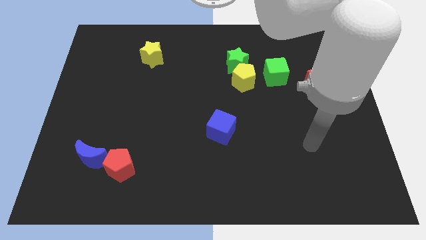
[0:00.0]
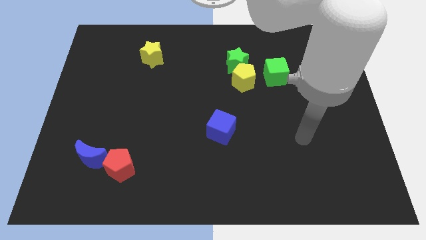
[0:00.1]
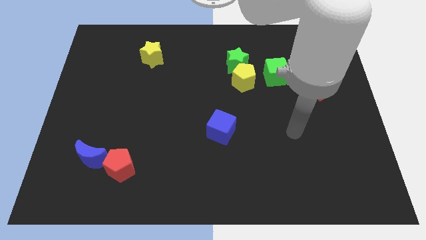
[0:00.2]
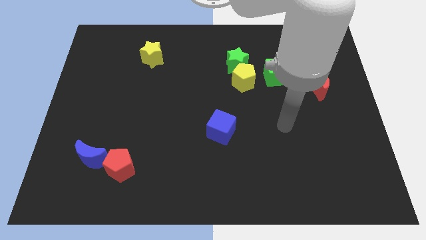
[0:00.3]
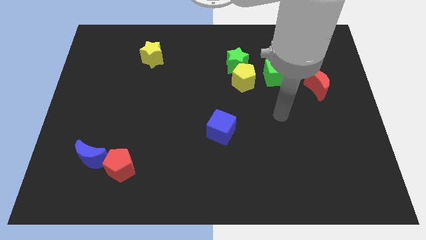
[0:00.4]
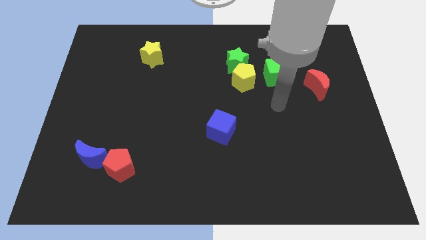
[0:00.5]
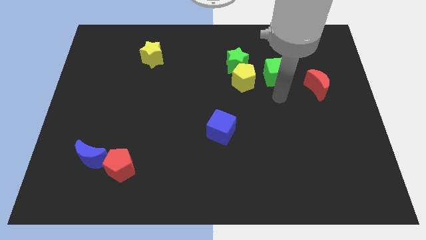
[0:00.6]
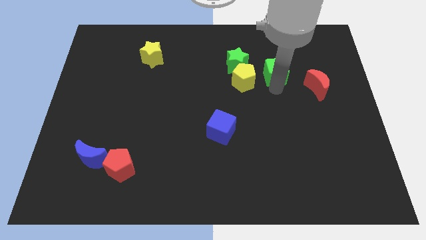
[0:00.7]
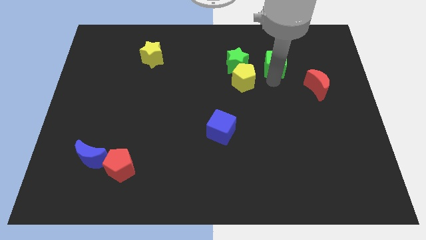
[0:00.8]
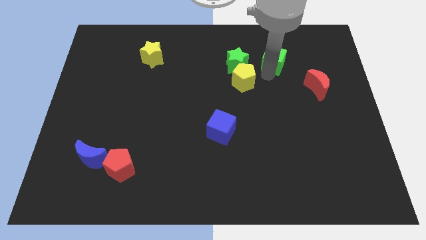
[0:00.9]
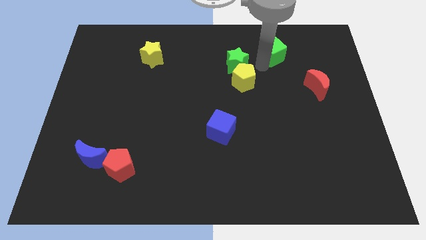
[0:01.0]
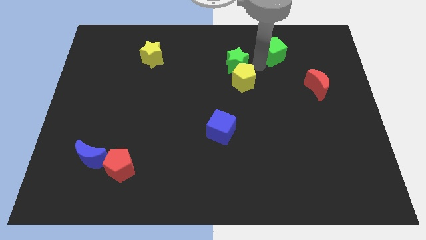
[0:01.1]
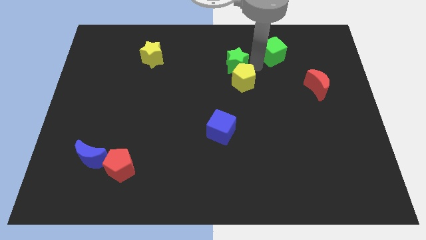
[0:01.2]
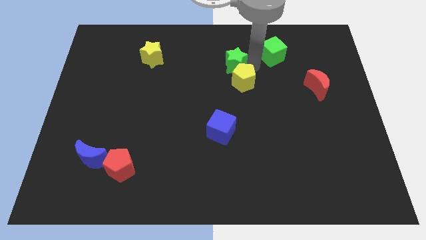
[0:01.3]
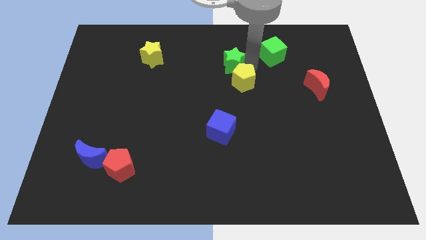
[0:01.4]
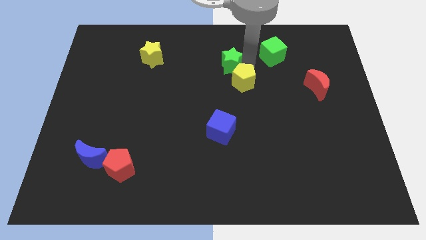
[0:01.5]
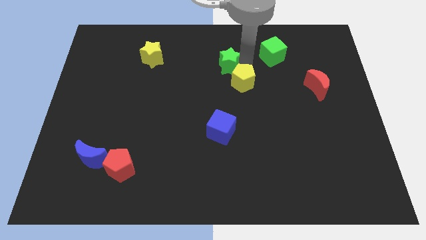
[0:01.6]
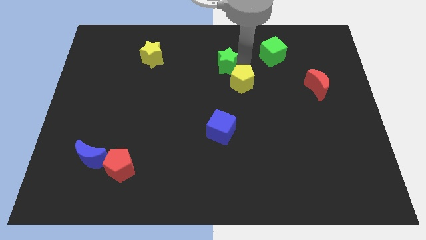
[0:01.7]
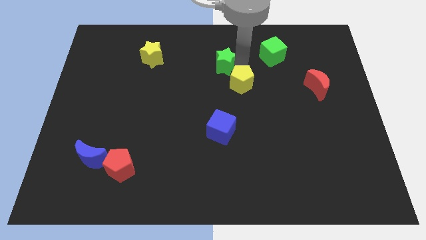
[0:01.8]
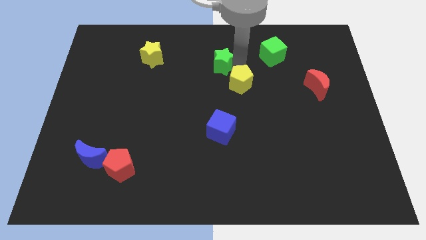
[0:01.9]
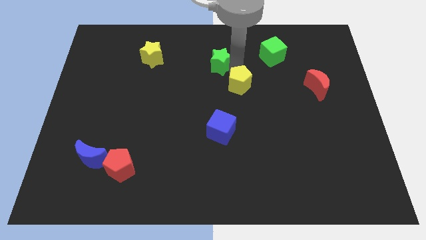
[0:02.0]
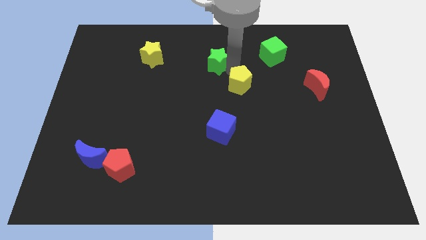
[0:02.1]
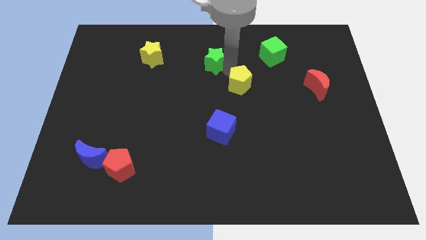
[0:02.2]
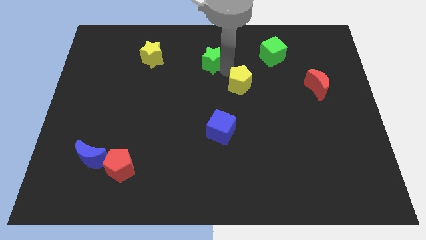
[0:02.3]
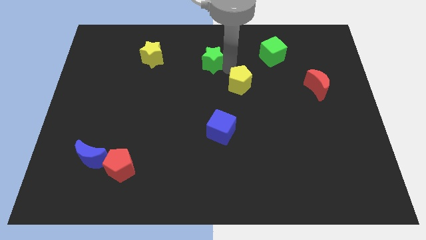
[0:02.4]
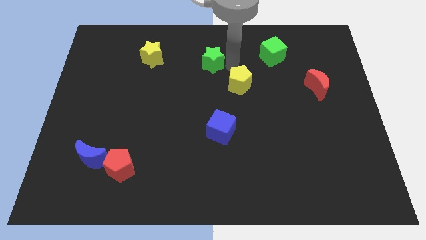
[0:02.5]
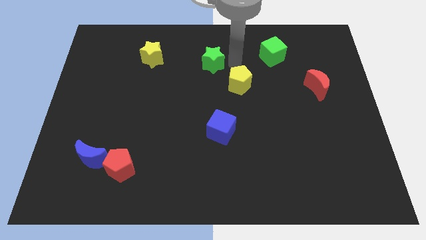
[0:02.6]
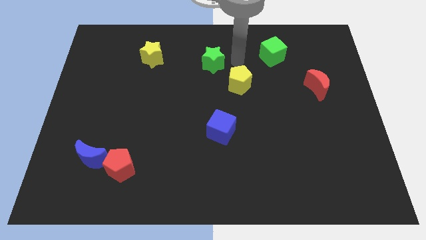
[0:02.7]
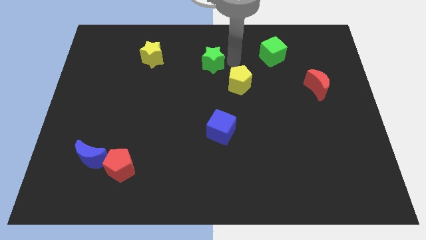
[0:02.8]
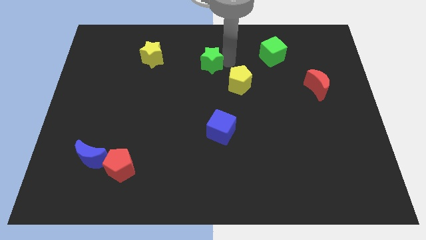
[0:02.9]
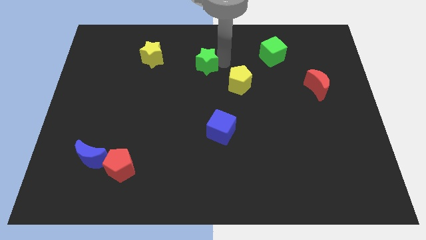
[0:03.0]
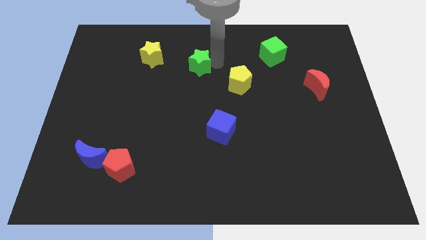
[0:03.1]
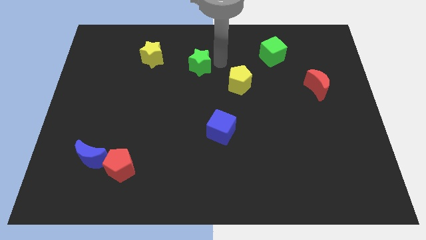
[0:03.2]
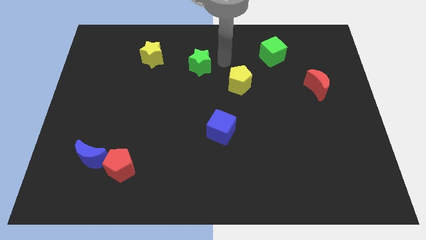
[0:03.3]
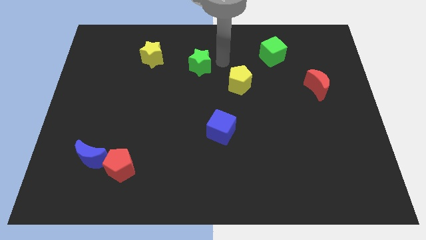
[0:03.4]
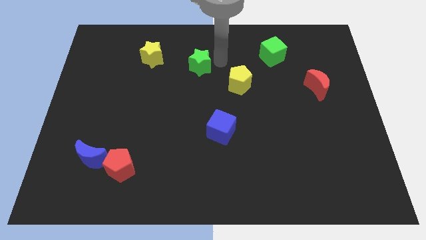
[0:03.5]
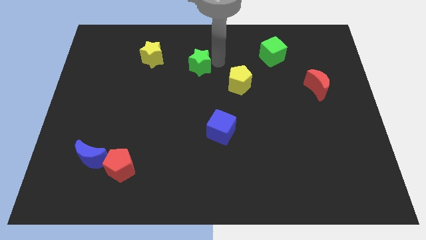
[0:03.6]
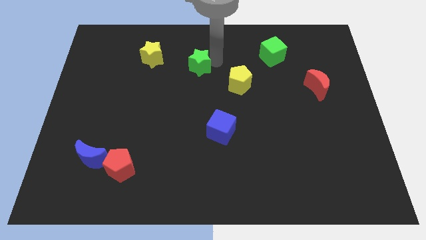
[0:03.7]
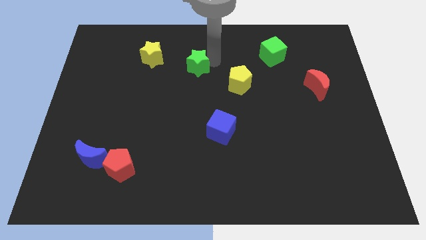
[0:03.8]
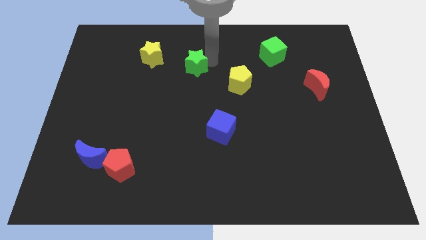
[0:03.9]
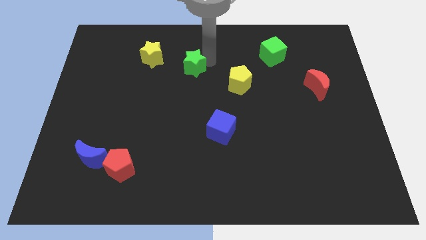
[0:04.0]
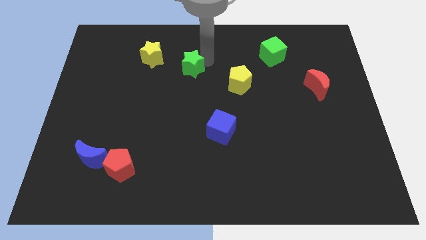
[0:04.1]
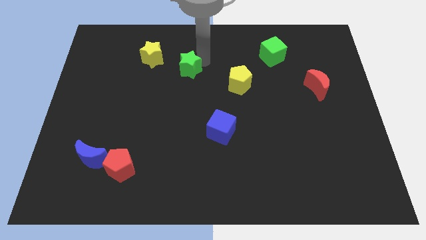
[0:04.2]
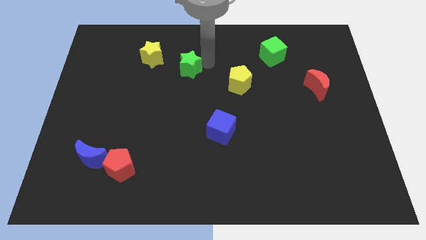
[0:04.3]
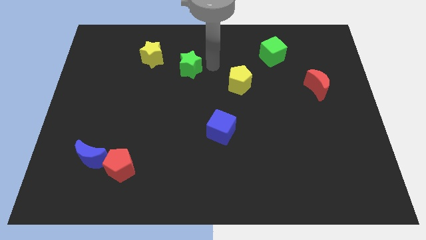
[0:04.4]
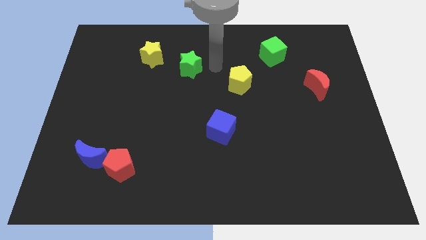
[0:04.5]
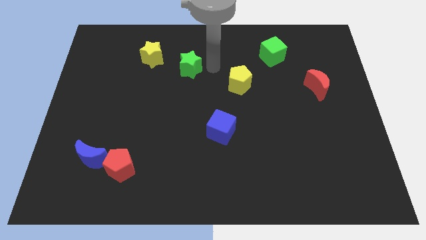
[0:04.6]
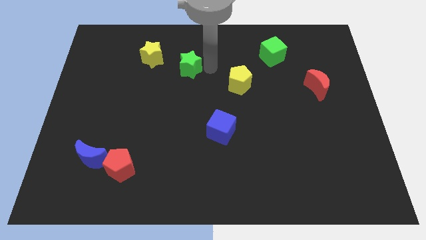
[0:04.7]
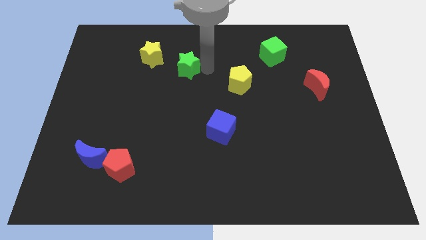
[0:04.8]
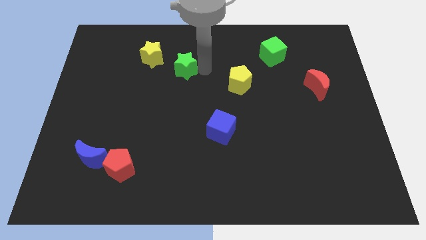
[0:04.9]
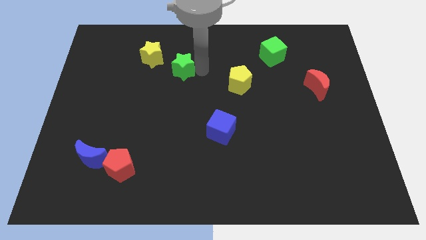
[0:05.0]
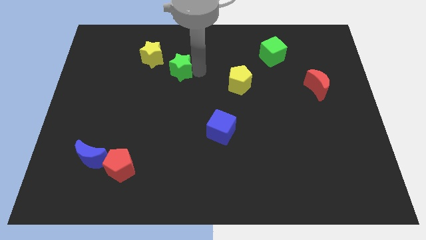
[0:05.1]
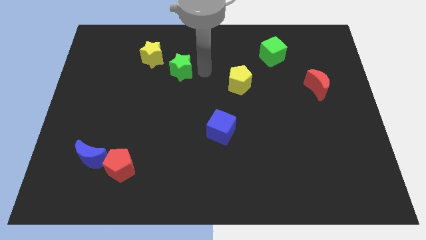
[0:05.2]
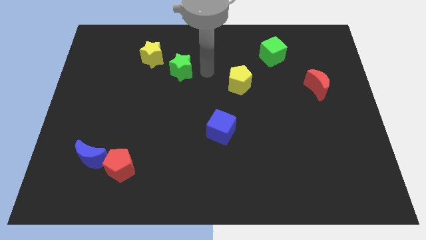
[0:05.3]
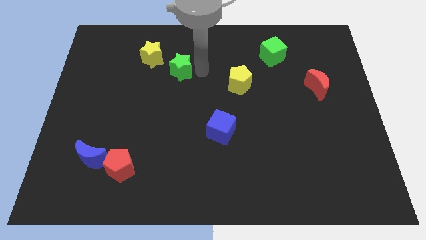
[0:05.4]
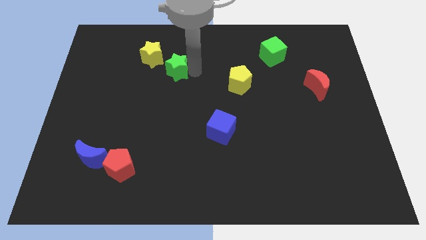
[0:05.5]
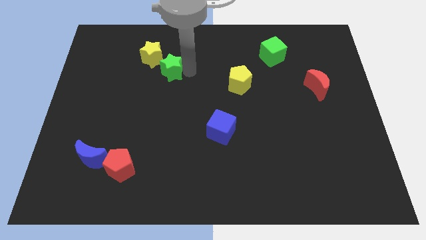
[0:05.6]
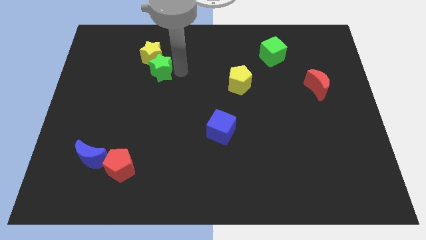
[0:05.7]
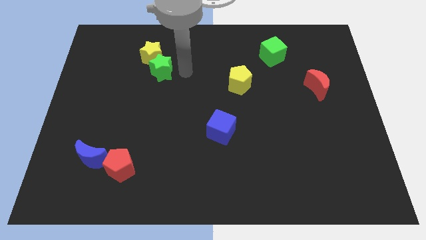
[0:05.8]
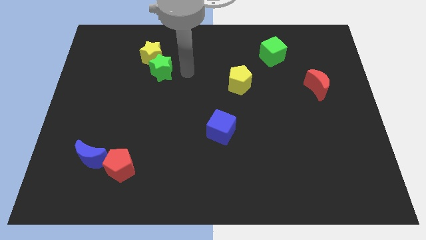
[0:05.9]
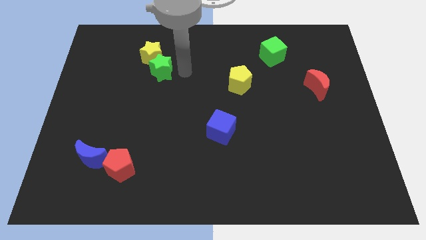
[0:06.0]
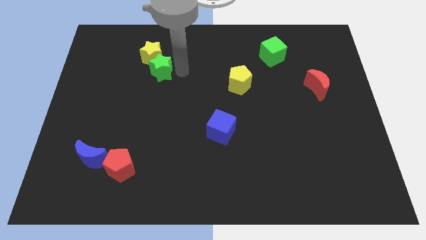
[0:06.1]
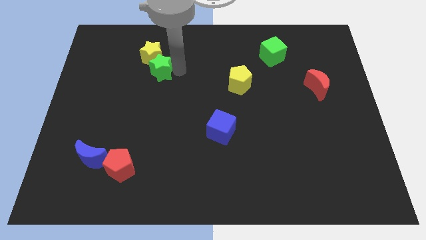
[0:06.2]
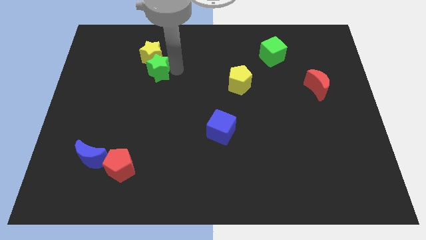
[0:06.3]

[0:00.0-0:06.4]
push the green star to the left

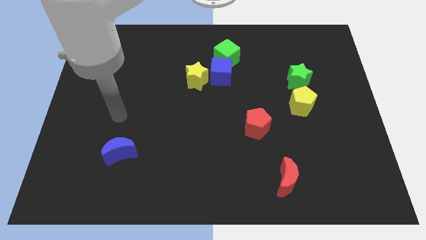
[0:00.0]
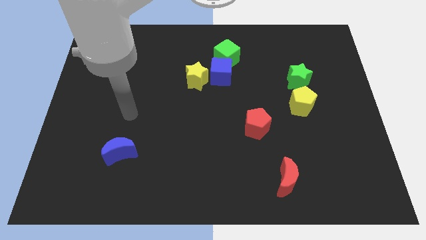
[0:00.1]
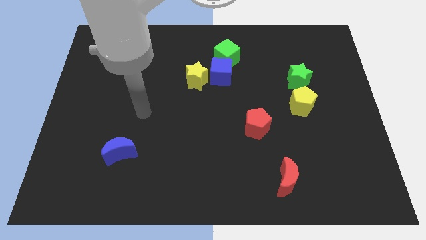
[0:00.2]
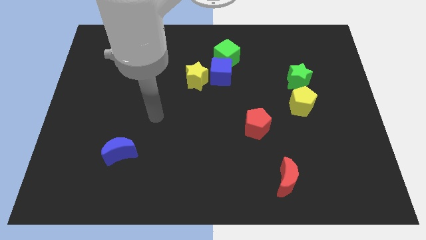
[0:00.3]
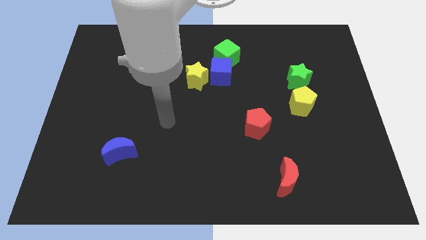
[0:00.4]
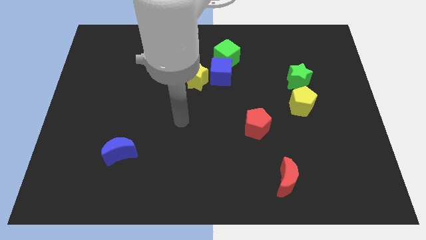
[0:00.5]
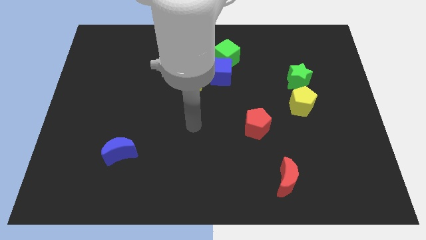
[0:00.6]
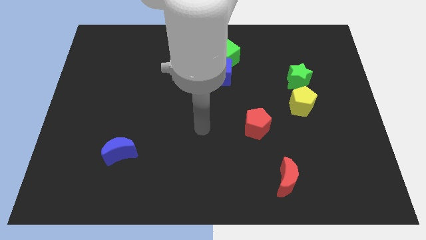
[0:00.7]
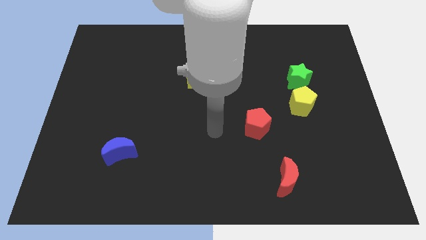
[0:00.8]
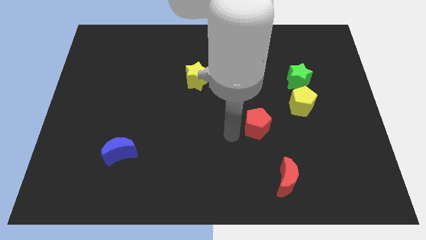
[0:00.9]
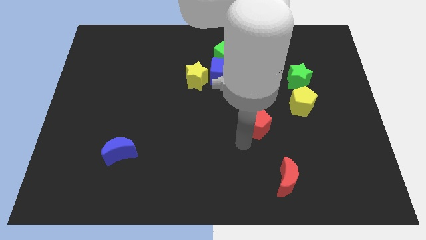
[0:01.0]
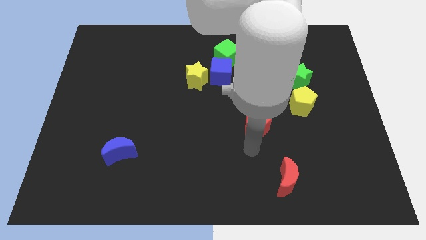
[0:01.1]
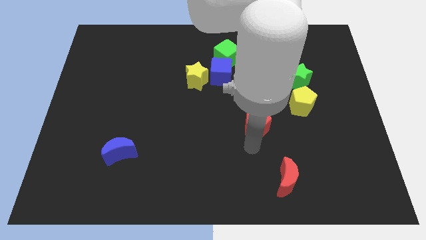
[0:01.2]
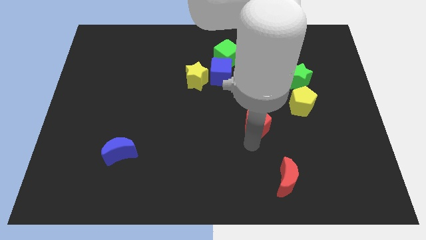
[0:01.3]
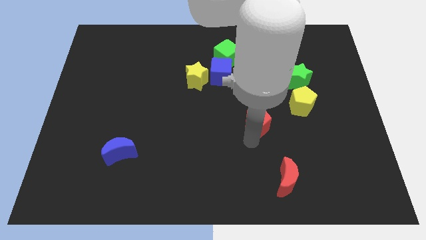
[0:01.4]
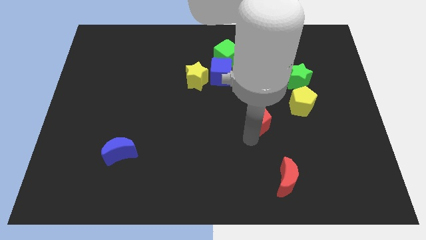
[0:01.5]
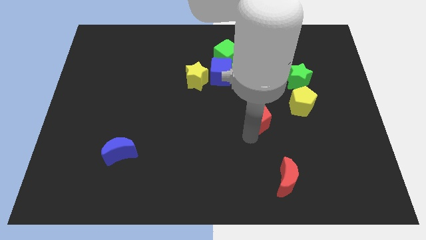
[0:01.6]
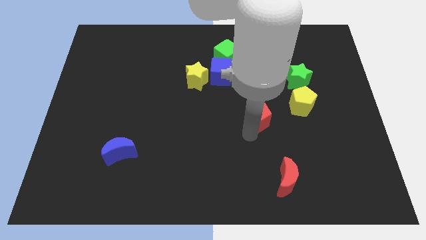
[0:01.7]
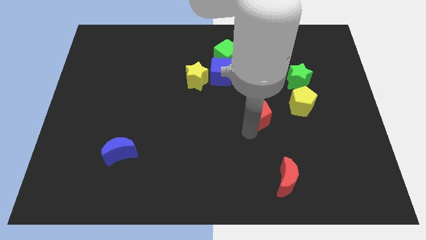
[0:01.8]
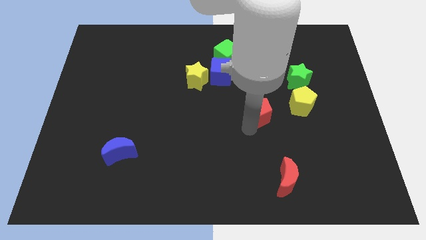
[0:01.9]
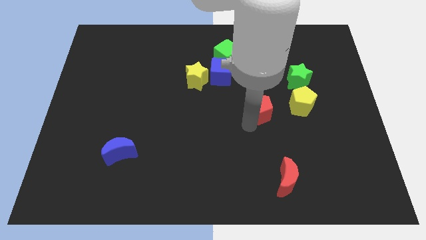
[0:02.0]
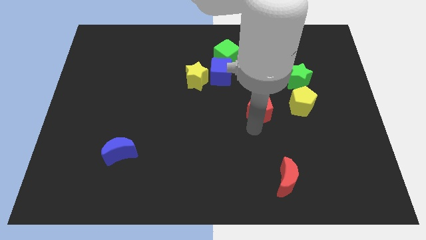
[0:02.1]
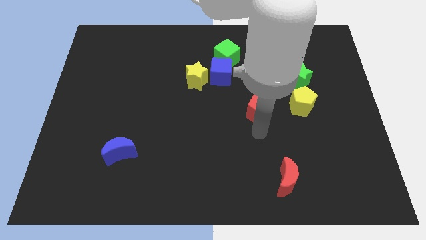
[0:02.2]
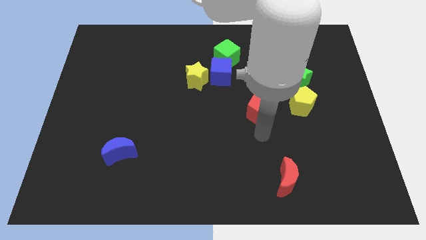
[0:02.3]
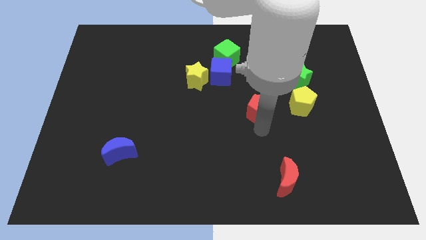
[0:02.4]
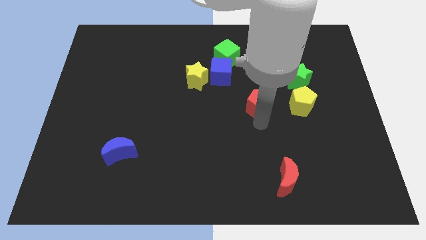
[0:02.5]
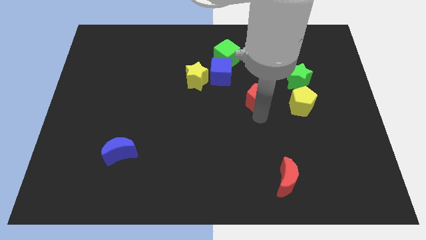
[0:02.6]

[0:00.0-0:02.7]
move the red pentagon up a little bit
